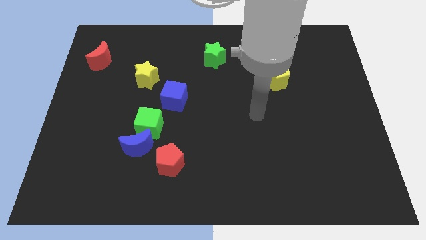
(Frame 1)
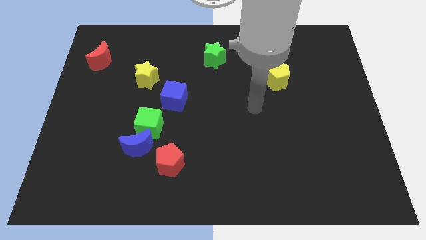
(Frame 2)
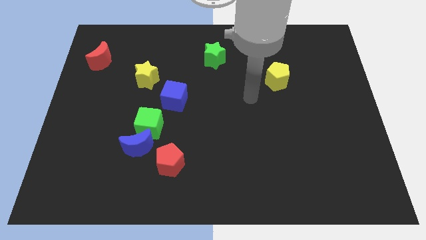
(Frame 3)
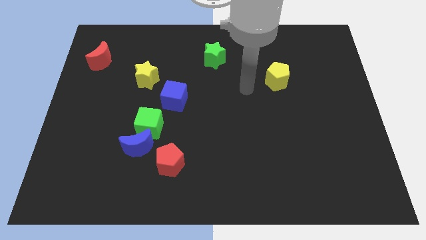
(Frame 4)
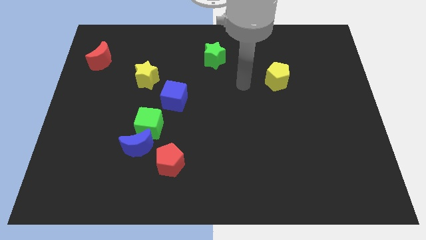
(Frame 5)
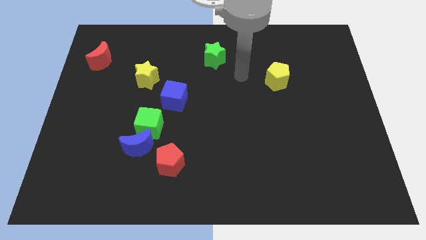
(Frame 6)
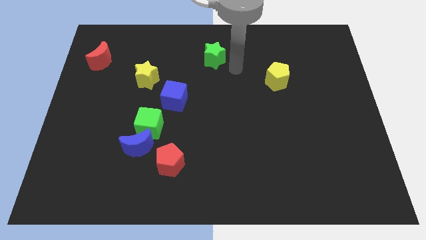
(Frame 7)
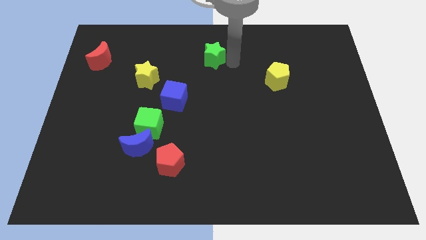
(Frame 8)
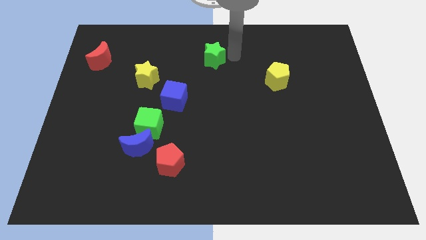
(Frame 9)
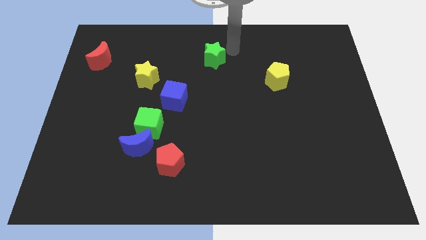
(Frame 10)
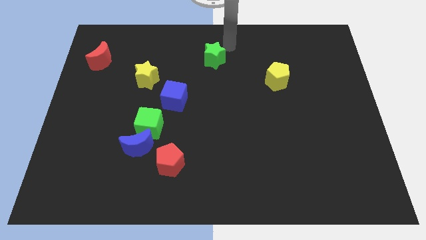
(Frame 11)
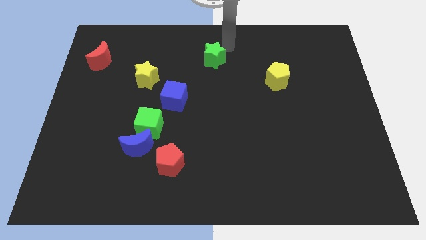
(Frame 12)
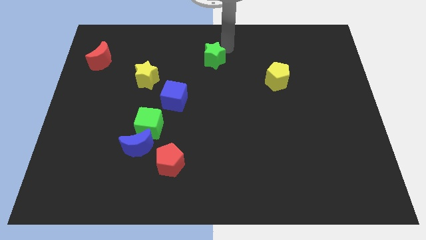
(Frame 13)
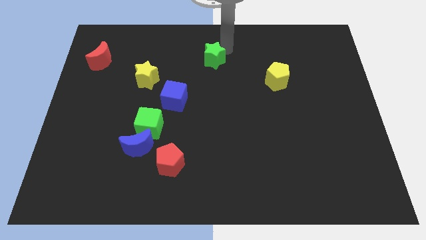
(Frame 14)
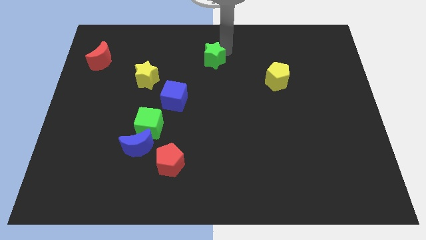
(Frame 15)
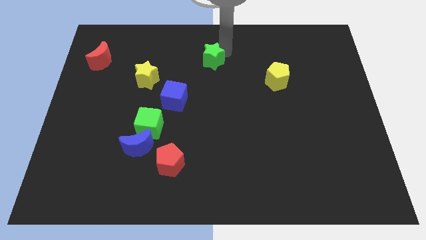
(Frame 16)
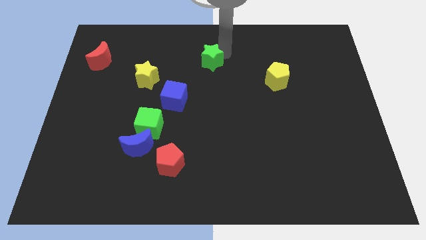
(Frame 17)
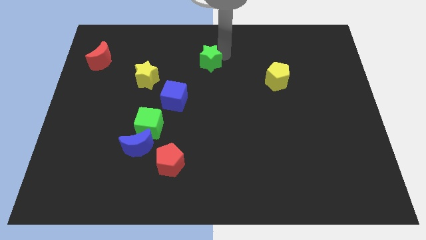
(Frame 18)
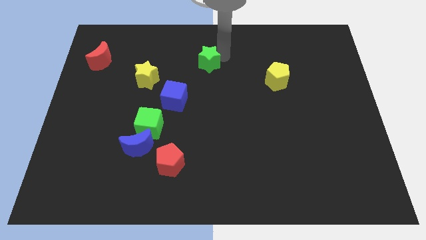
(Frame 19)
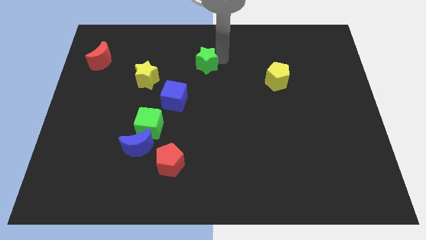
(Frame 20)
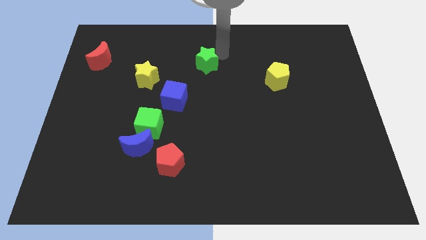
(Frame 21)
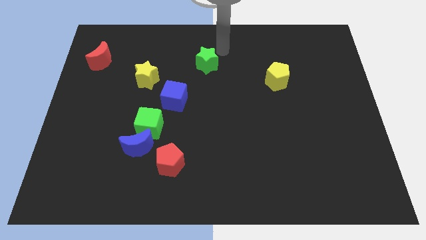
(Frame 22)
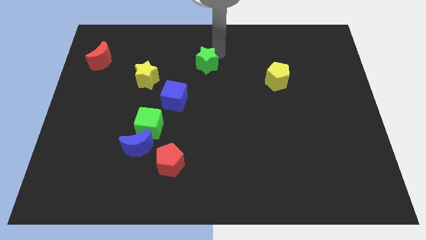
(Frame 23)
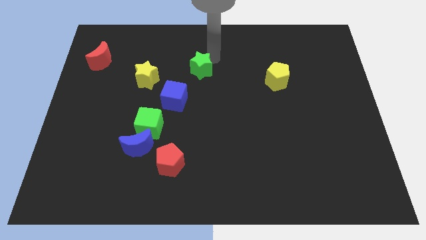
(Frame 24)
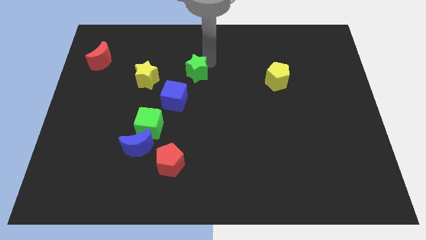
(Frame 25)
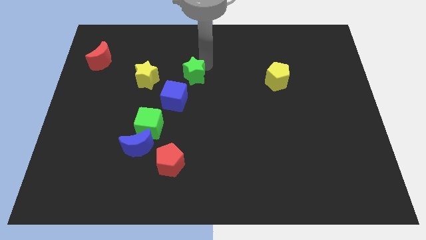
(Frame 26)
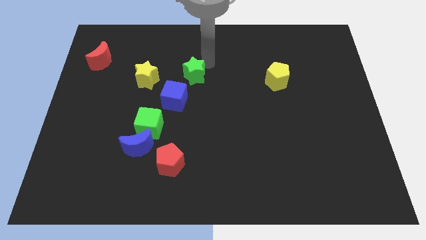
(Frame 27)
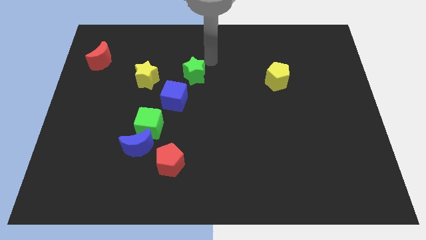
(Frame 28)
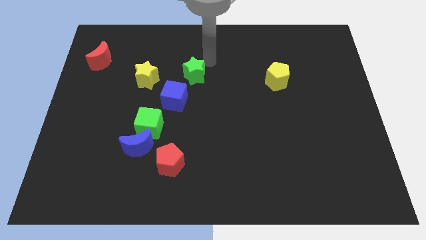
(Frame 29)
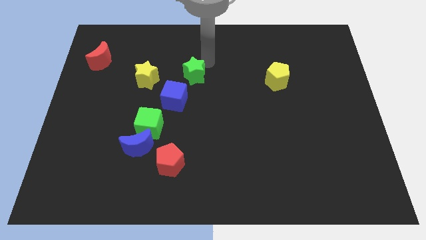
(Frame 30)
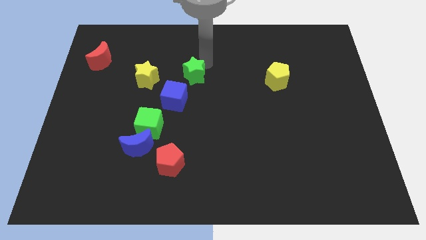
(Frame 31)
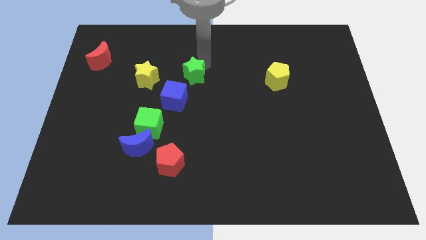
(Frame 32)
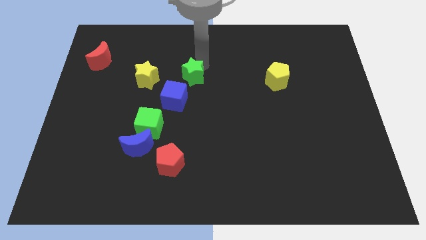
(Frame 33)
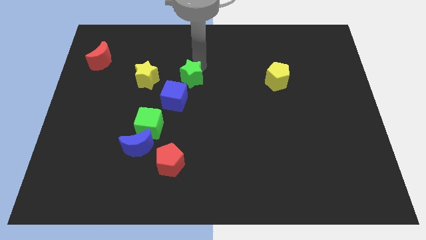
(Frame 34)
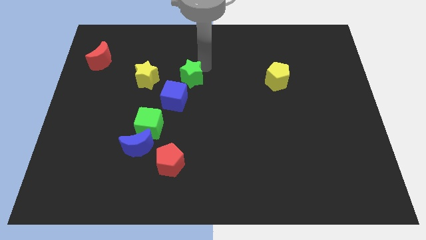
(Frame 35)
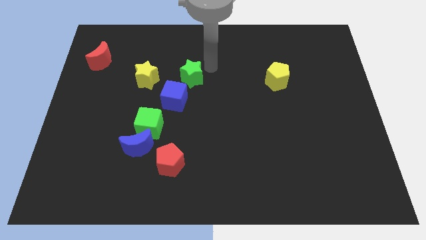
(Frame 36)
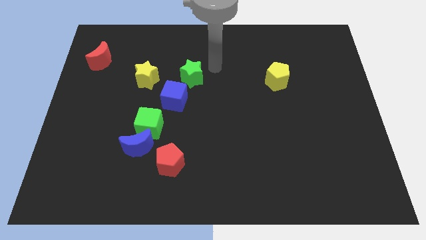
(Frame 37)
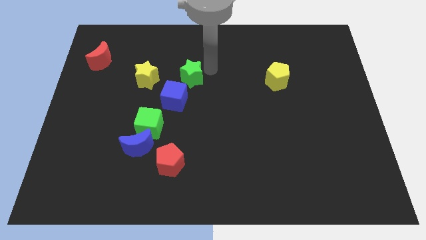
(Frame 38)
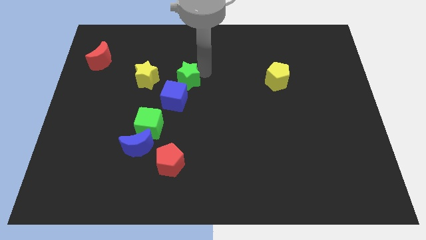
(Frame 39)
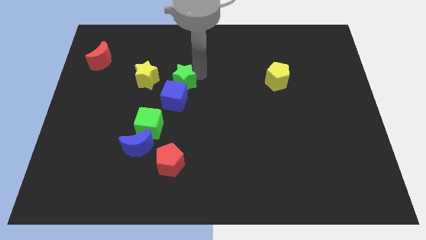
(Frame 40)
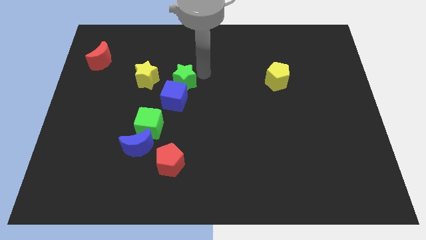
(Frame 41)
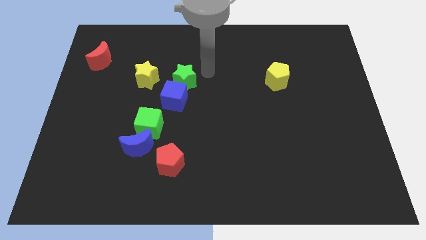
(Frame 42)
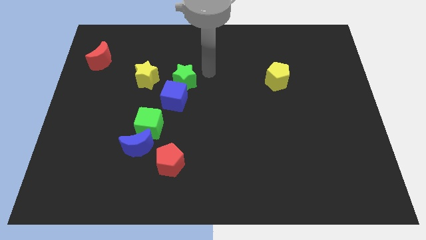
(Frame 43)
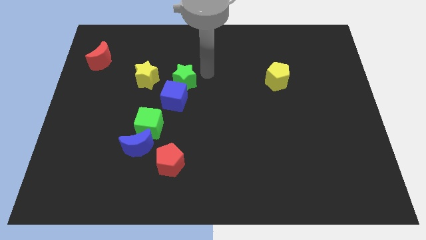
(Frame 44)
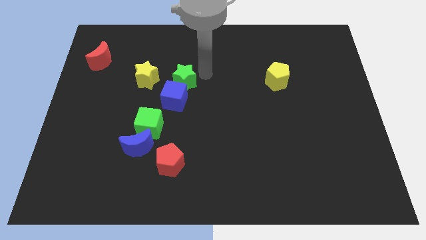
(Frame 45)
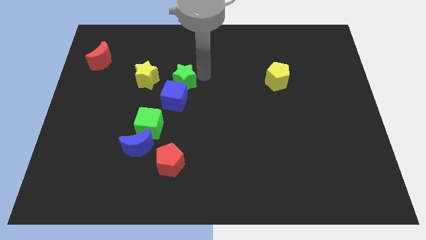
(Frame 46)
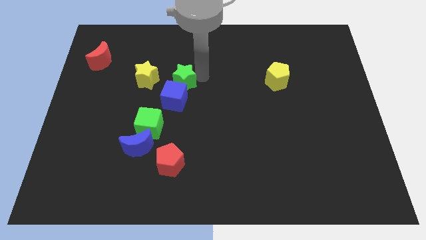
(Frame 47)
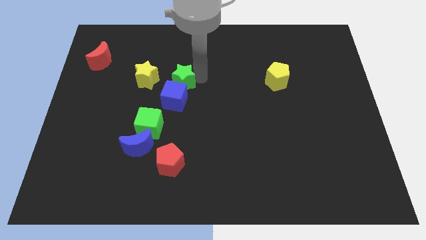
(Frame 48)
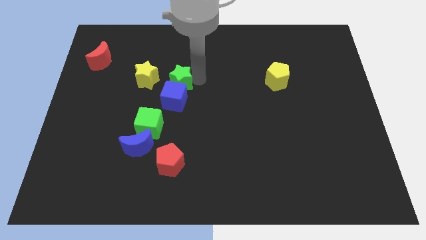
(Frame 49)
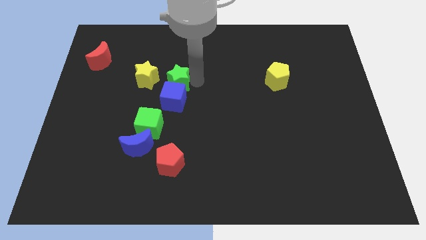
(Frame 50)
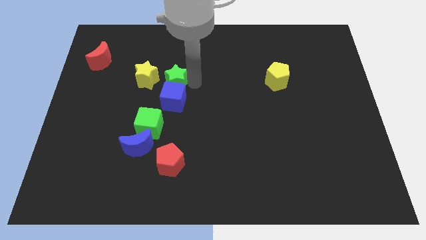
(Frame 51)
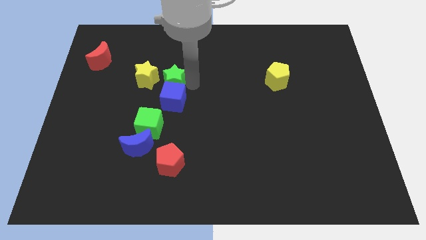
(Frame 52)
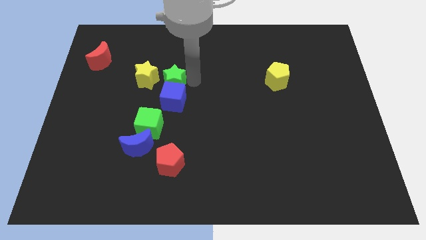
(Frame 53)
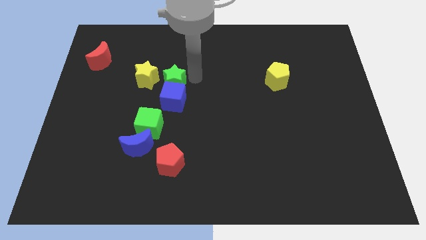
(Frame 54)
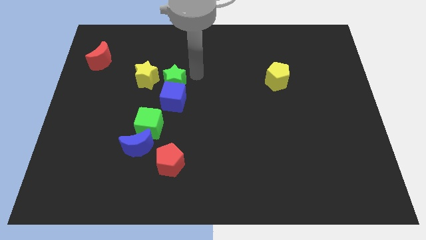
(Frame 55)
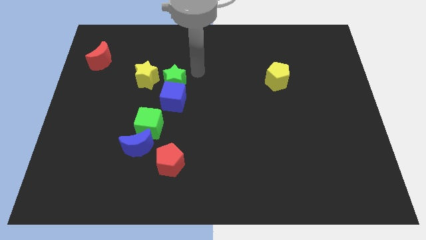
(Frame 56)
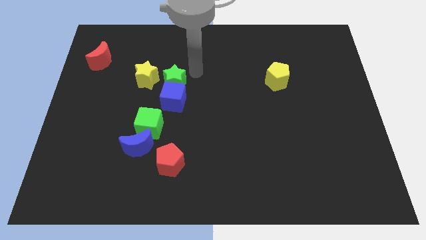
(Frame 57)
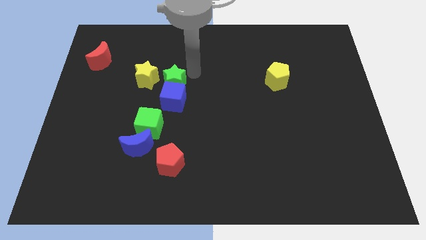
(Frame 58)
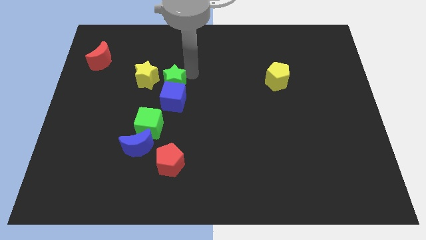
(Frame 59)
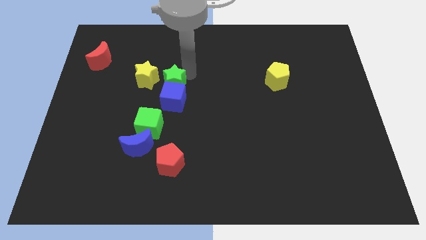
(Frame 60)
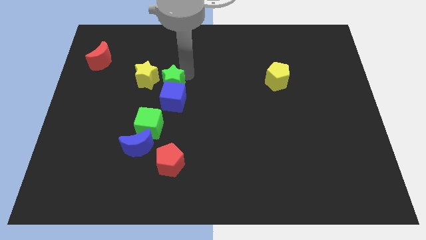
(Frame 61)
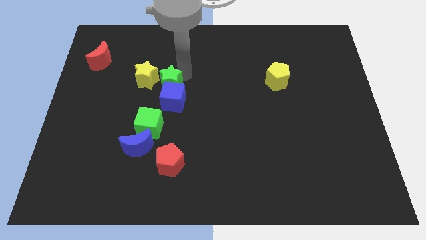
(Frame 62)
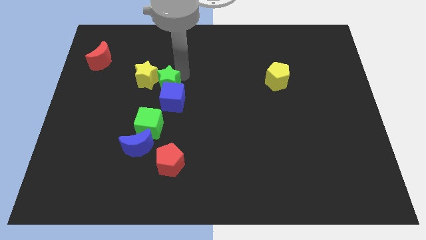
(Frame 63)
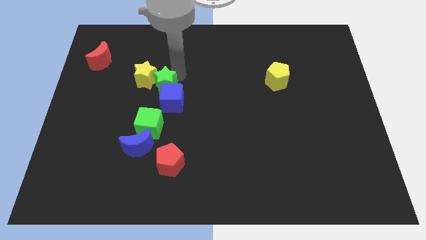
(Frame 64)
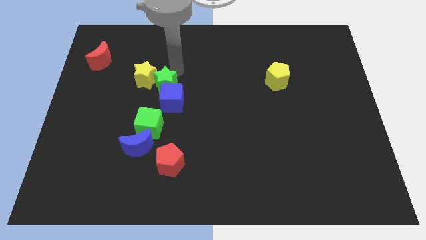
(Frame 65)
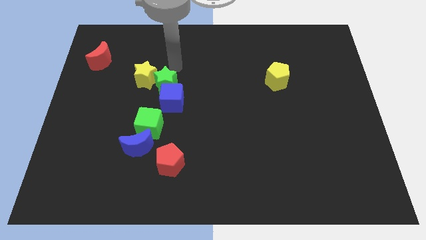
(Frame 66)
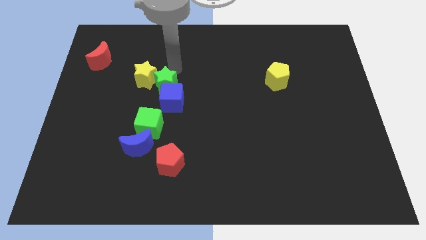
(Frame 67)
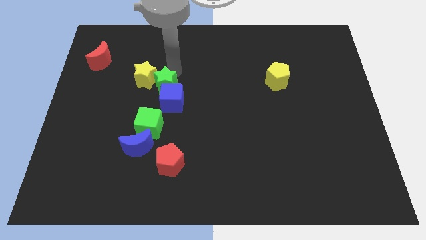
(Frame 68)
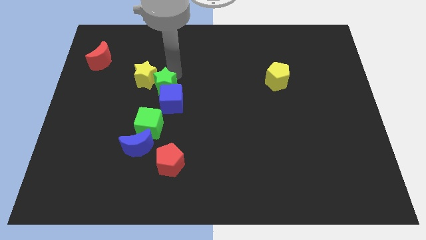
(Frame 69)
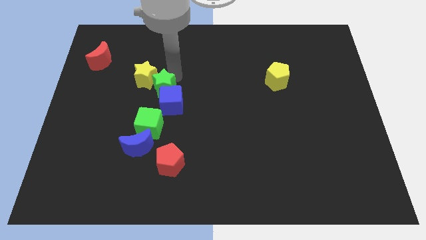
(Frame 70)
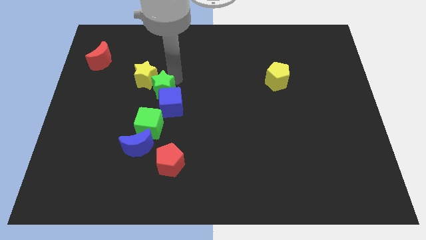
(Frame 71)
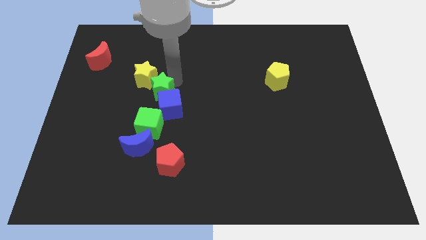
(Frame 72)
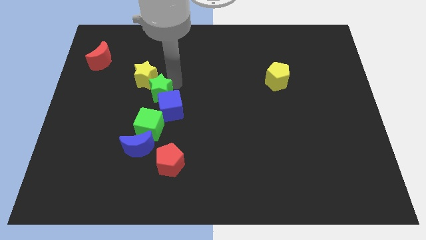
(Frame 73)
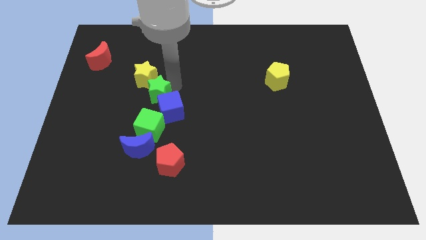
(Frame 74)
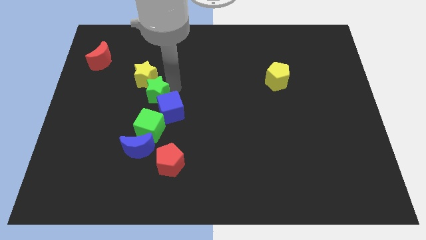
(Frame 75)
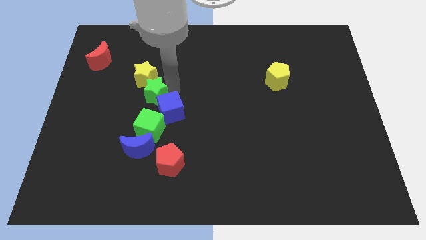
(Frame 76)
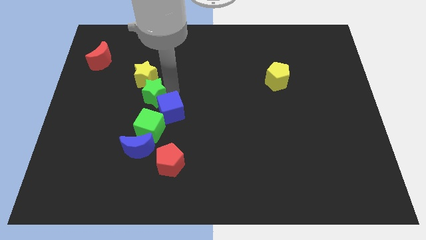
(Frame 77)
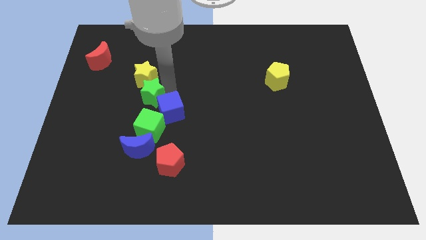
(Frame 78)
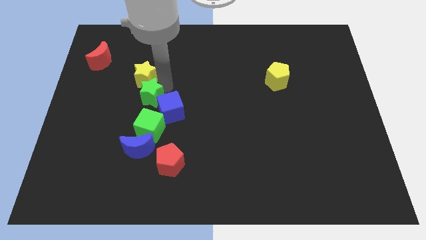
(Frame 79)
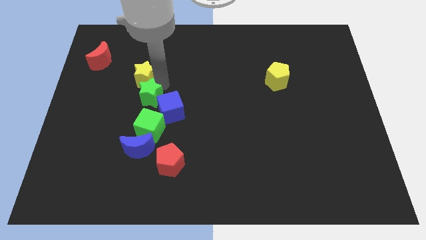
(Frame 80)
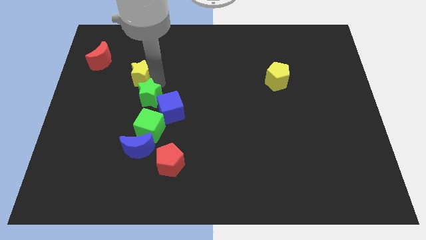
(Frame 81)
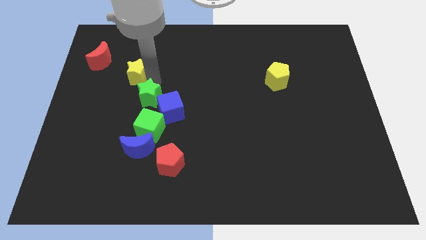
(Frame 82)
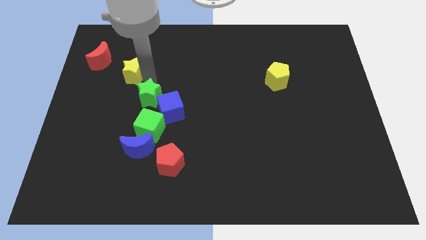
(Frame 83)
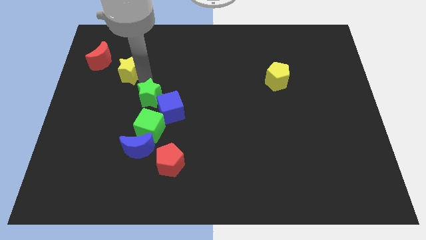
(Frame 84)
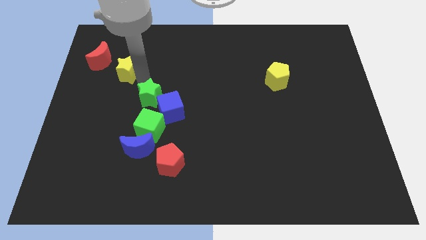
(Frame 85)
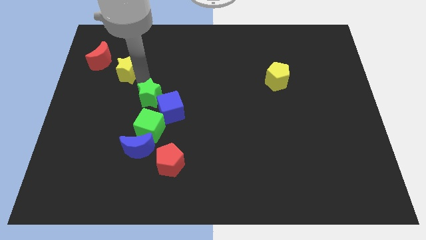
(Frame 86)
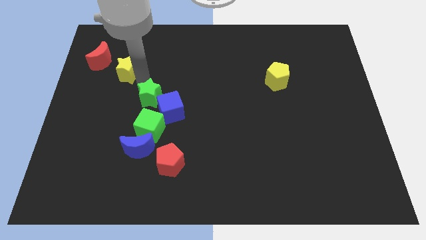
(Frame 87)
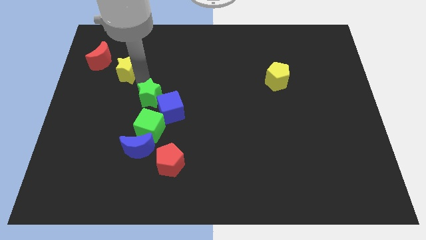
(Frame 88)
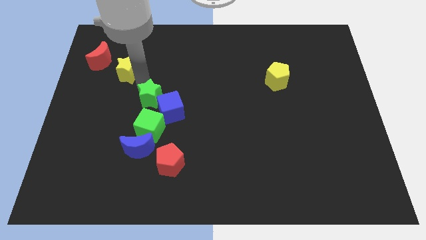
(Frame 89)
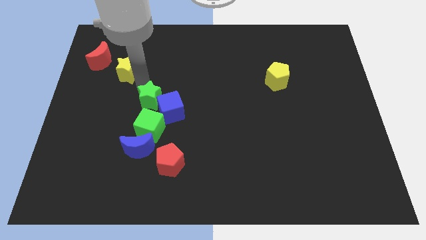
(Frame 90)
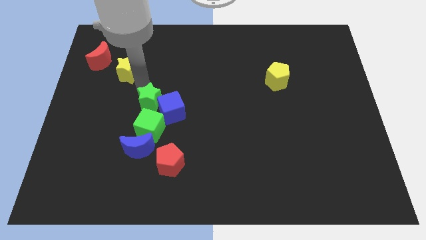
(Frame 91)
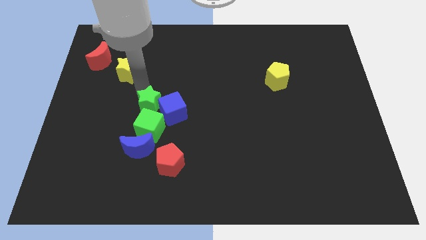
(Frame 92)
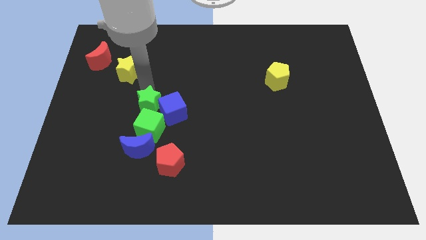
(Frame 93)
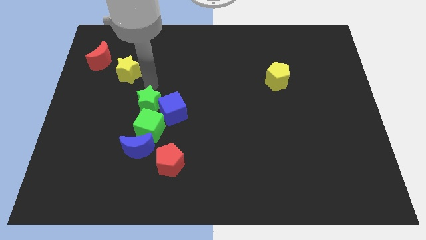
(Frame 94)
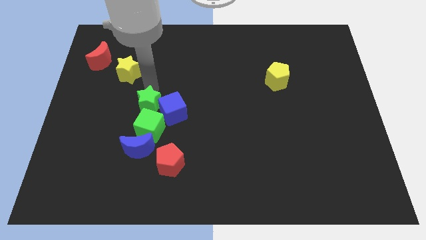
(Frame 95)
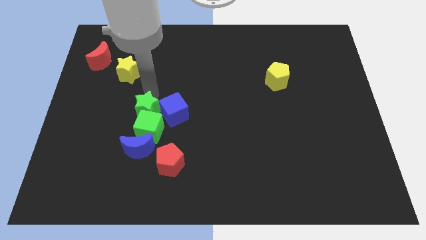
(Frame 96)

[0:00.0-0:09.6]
push the green star next to the green cube
